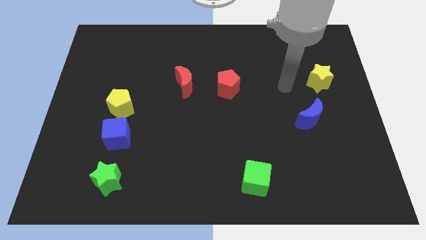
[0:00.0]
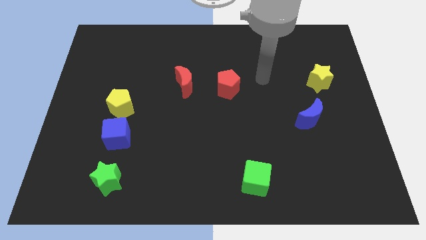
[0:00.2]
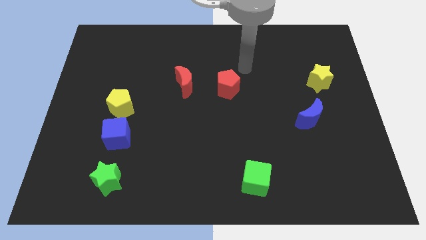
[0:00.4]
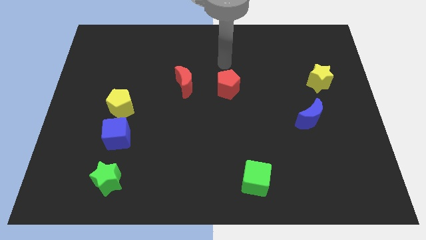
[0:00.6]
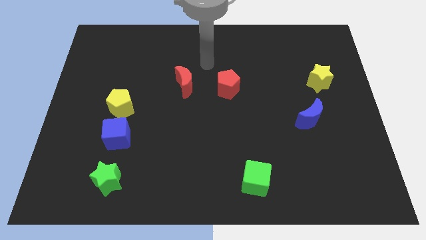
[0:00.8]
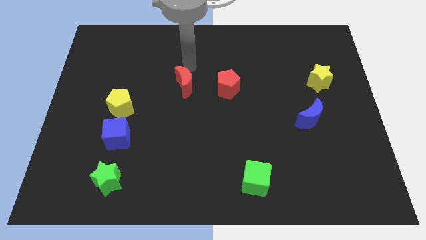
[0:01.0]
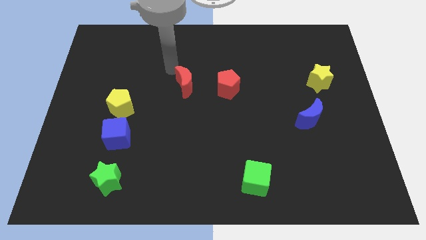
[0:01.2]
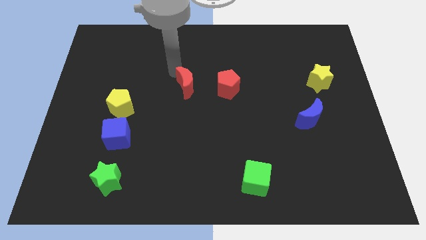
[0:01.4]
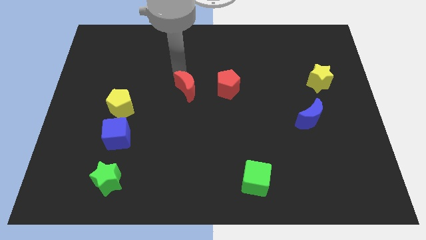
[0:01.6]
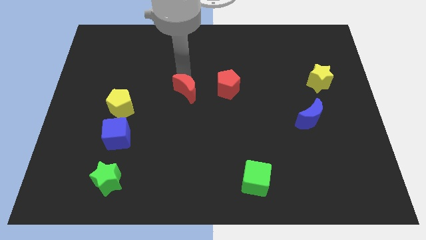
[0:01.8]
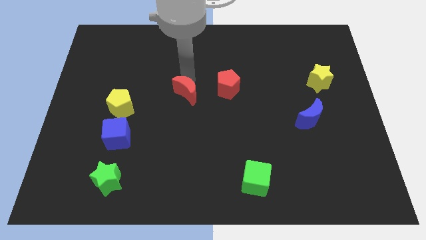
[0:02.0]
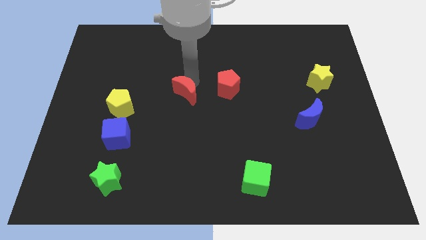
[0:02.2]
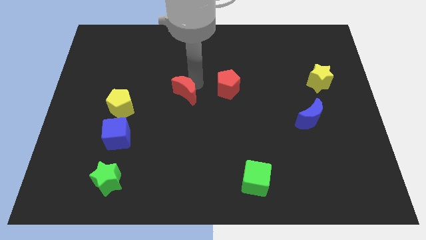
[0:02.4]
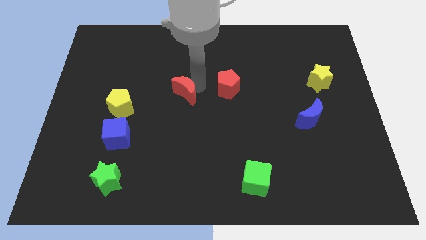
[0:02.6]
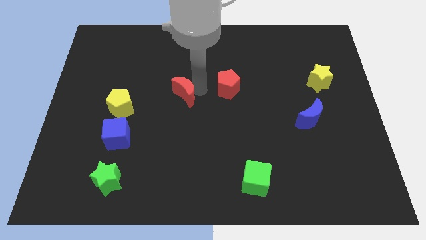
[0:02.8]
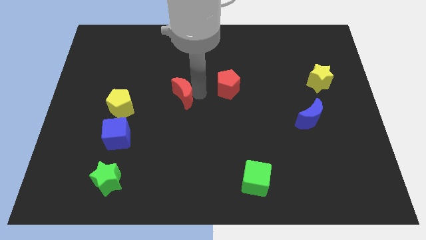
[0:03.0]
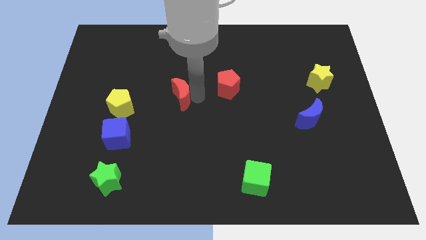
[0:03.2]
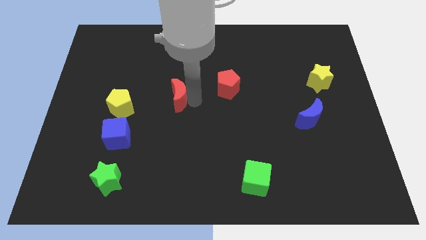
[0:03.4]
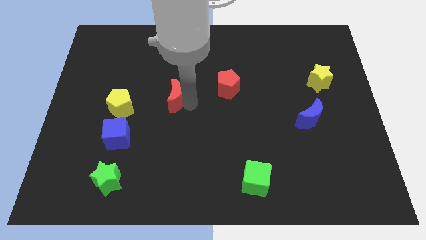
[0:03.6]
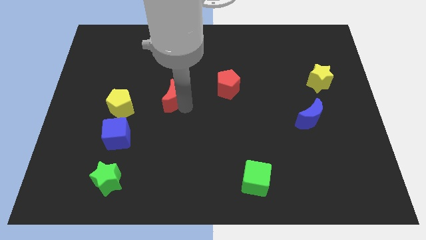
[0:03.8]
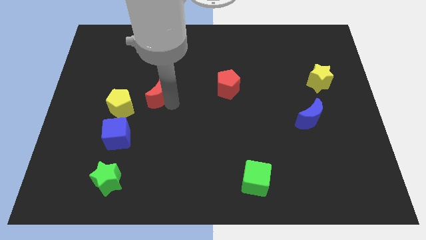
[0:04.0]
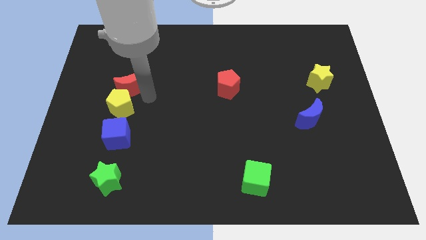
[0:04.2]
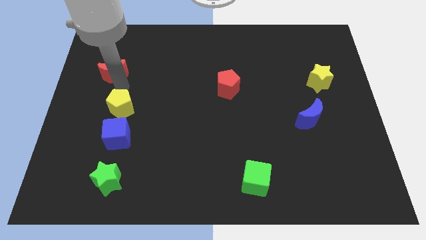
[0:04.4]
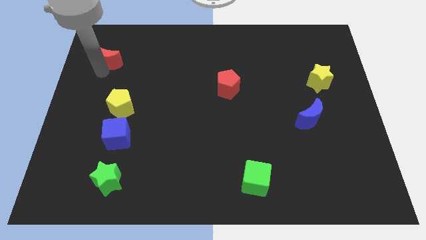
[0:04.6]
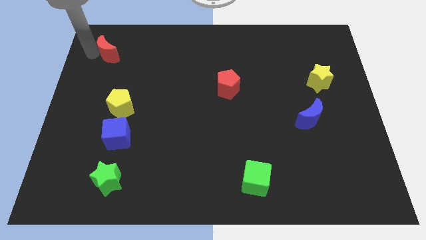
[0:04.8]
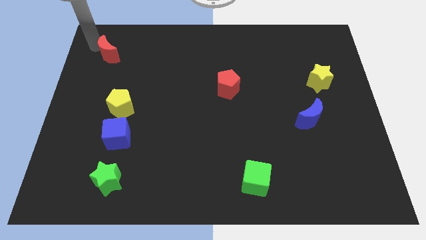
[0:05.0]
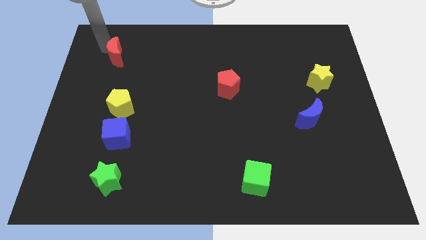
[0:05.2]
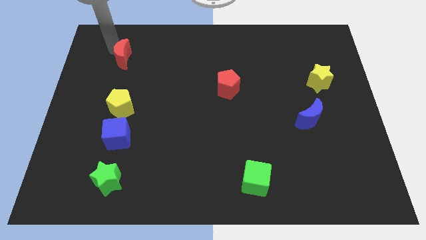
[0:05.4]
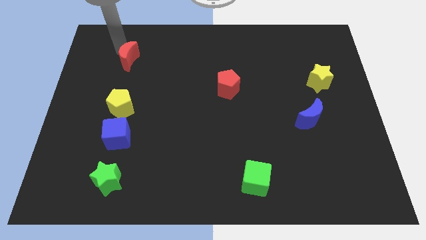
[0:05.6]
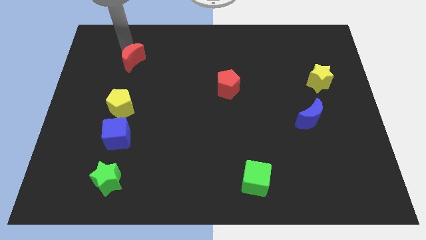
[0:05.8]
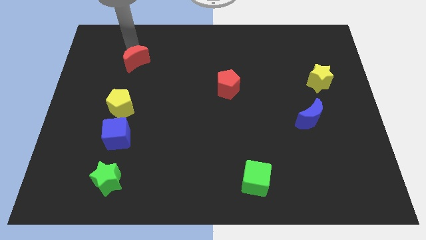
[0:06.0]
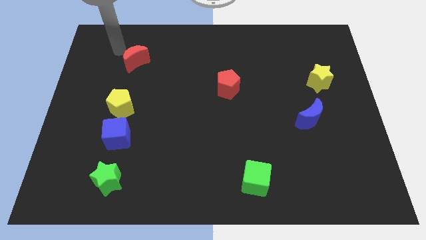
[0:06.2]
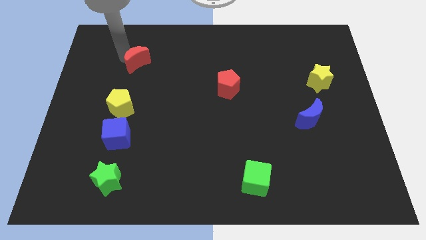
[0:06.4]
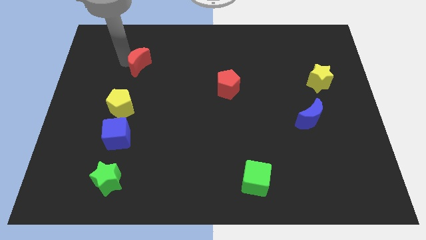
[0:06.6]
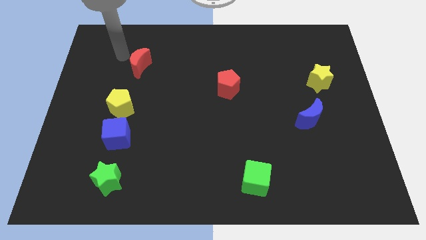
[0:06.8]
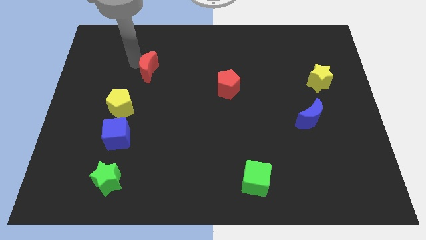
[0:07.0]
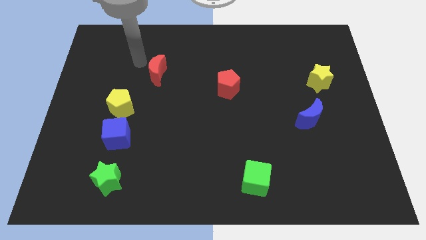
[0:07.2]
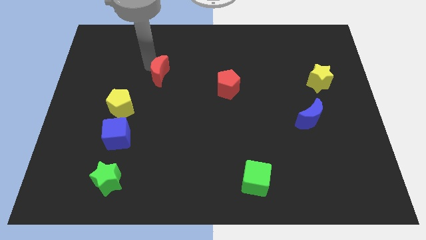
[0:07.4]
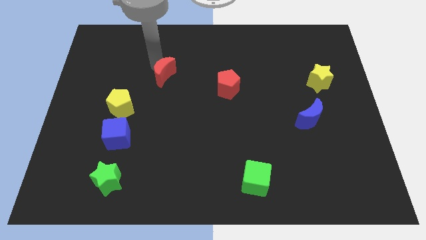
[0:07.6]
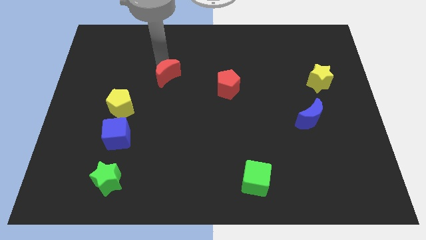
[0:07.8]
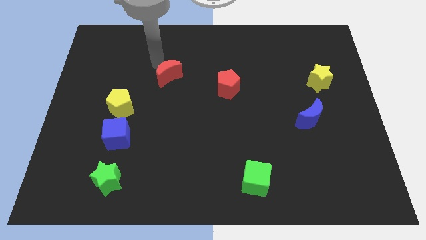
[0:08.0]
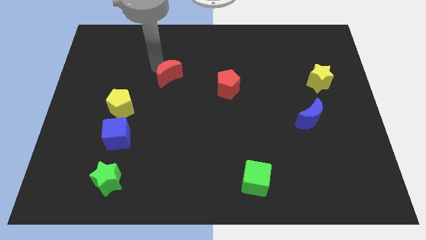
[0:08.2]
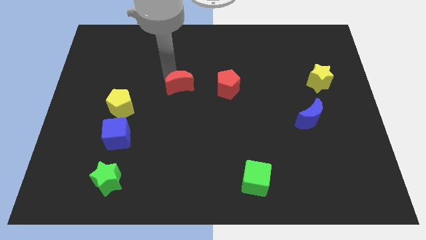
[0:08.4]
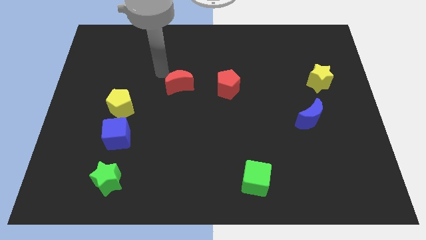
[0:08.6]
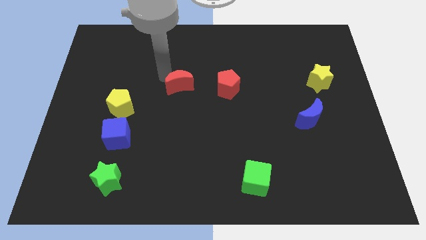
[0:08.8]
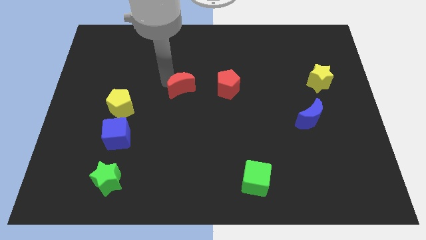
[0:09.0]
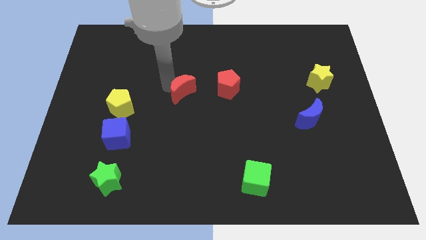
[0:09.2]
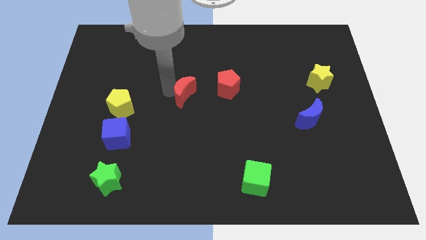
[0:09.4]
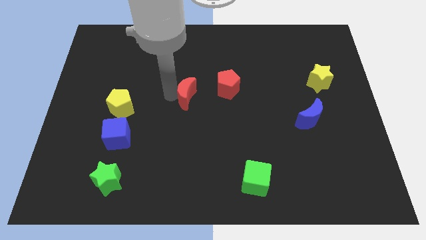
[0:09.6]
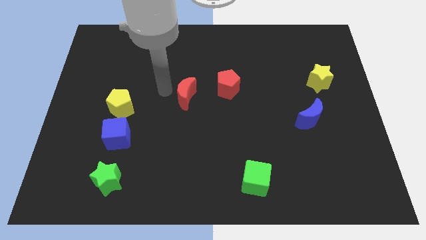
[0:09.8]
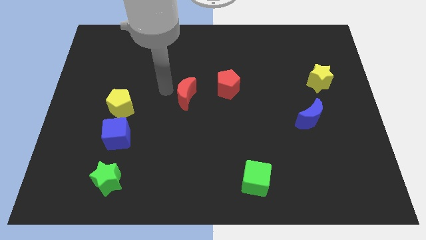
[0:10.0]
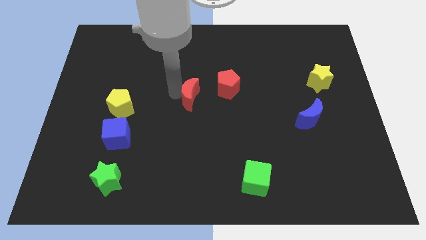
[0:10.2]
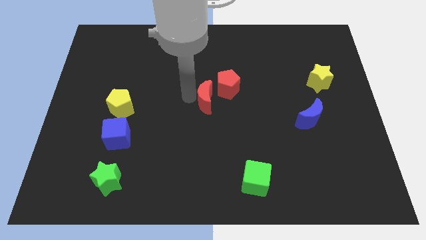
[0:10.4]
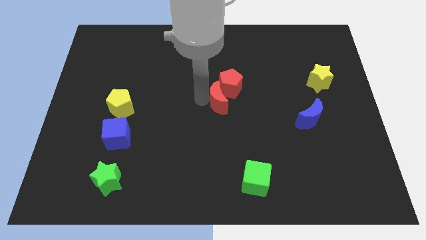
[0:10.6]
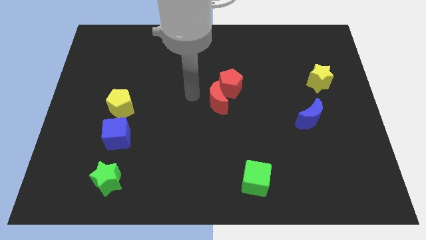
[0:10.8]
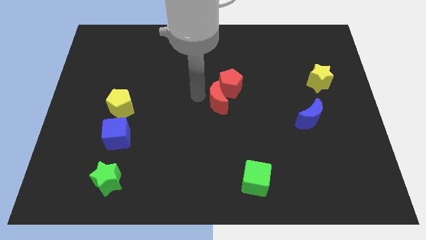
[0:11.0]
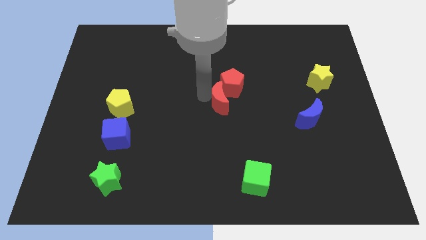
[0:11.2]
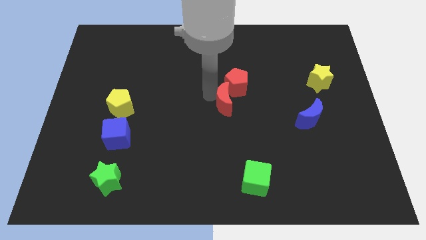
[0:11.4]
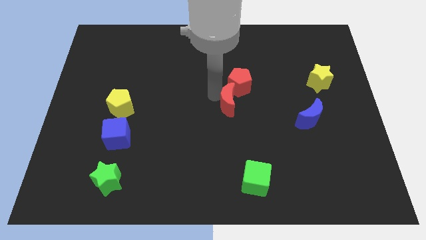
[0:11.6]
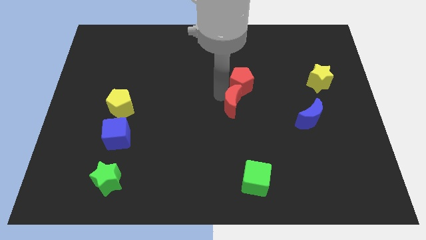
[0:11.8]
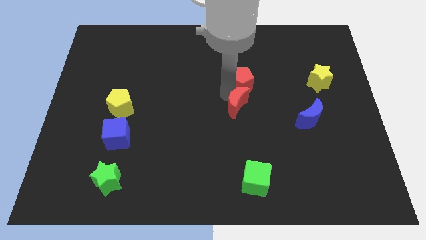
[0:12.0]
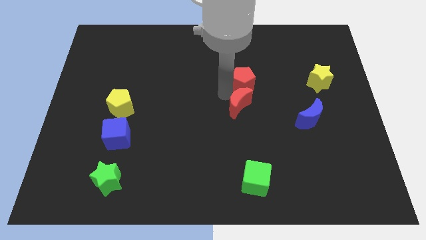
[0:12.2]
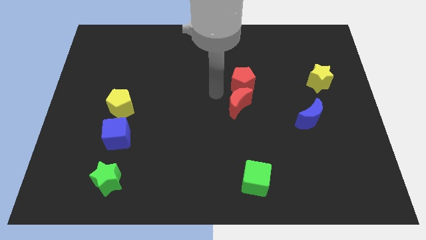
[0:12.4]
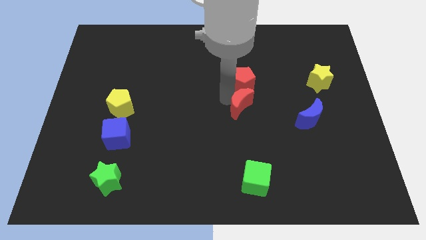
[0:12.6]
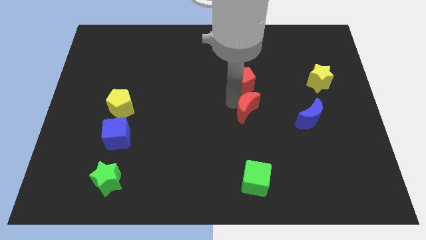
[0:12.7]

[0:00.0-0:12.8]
move the red moon to the left of the blue moon

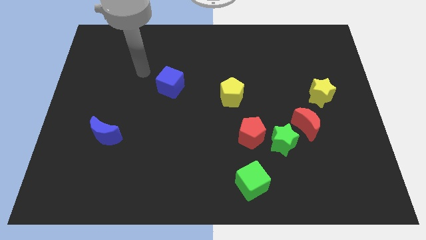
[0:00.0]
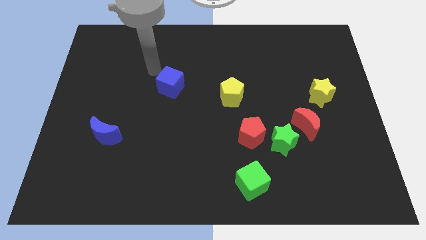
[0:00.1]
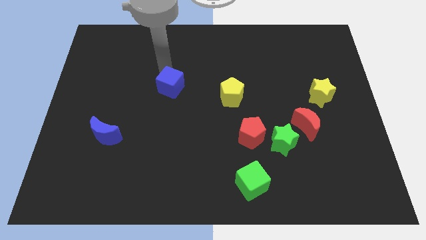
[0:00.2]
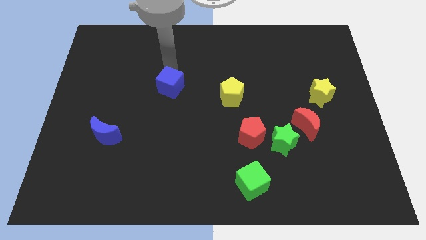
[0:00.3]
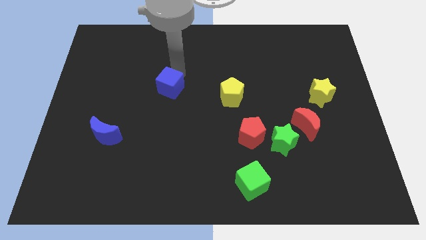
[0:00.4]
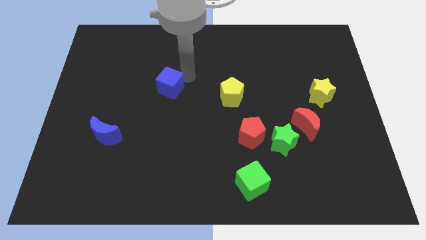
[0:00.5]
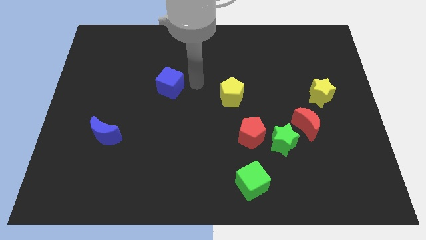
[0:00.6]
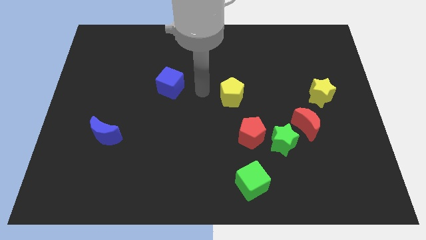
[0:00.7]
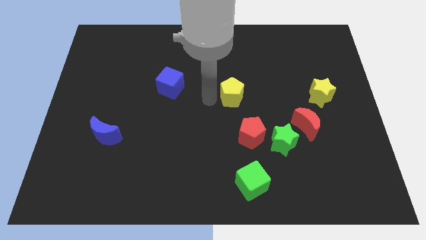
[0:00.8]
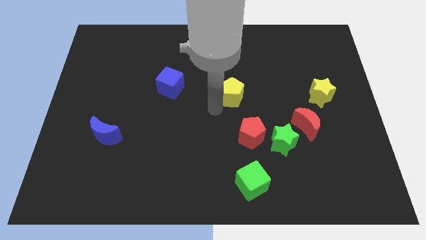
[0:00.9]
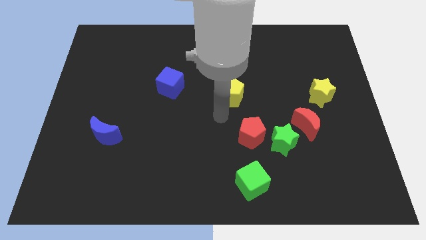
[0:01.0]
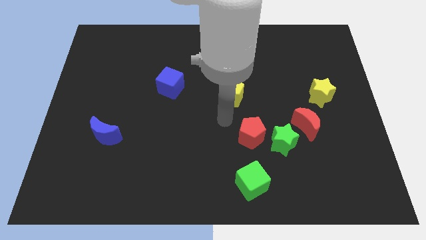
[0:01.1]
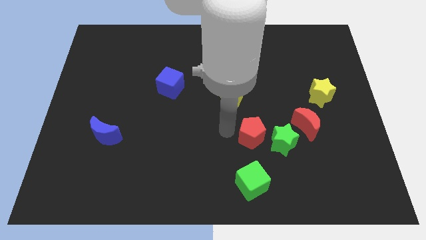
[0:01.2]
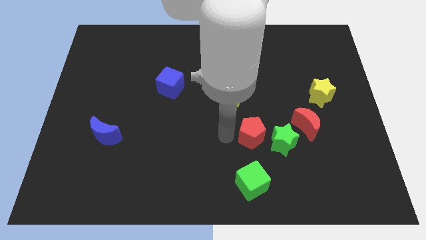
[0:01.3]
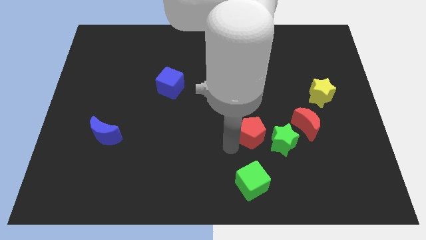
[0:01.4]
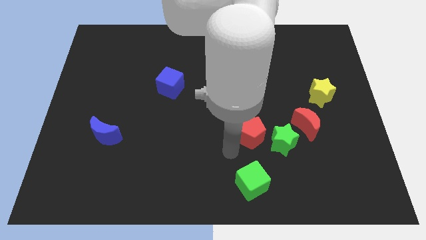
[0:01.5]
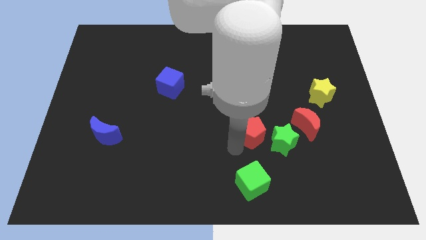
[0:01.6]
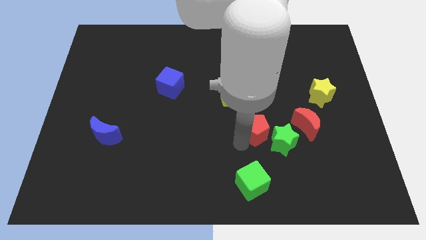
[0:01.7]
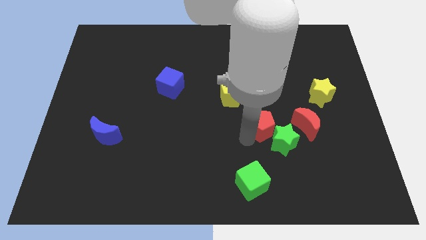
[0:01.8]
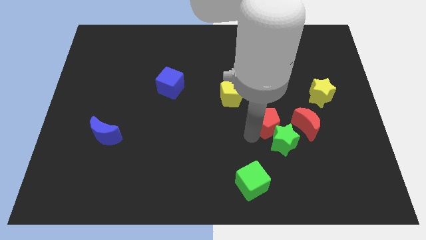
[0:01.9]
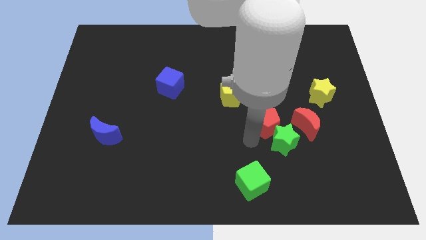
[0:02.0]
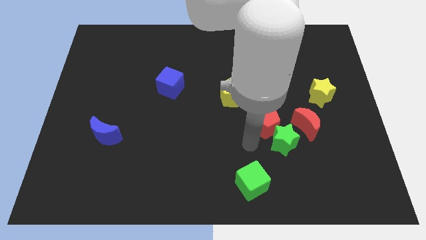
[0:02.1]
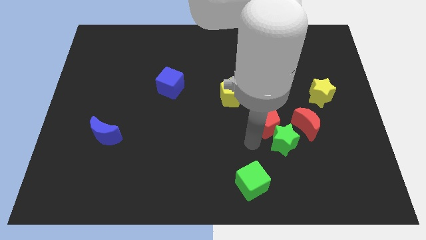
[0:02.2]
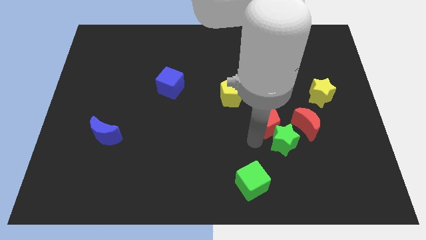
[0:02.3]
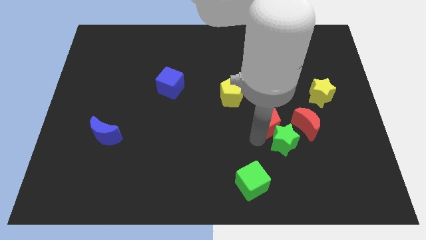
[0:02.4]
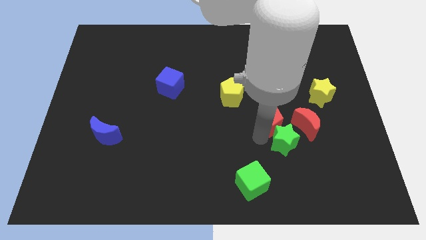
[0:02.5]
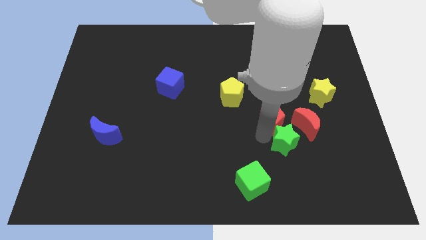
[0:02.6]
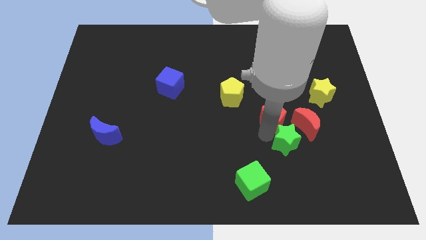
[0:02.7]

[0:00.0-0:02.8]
move the red pentagon to the top left of the red moon
